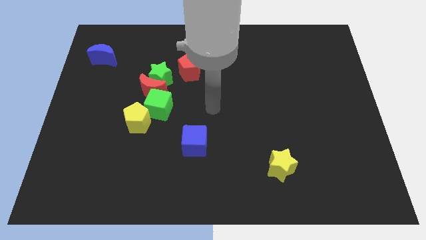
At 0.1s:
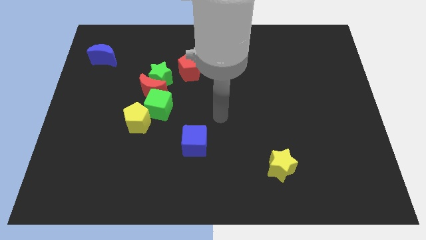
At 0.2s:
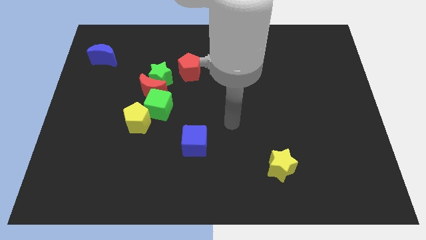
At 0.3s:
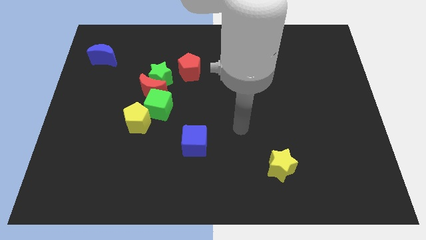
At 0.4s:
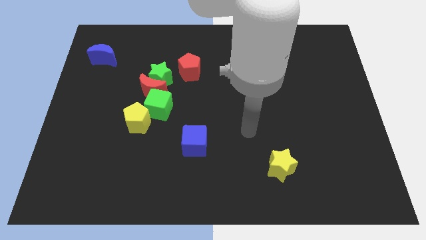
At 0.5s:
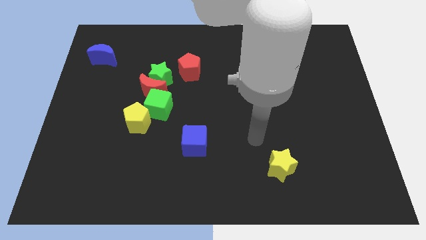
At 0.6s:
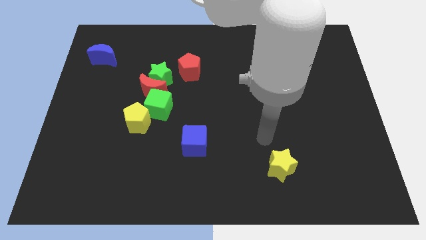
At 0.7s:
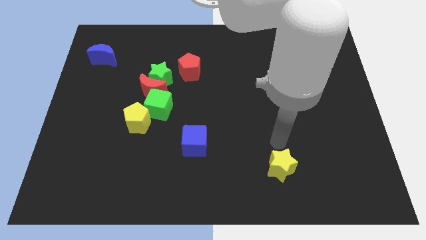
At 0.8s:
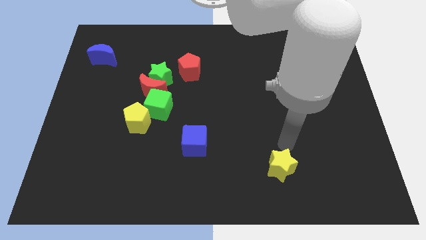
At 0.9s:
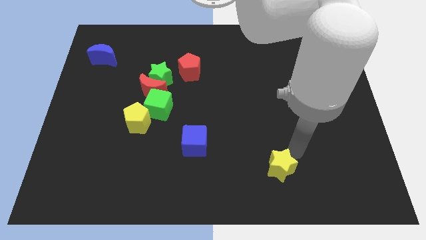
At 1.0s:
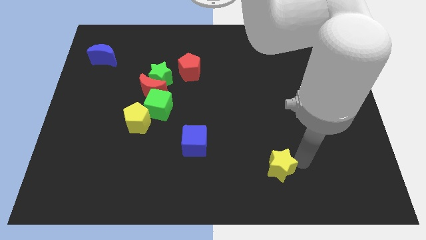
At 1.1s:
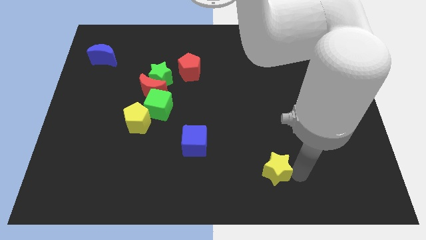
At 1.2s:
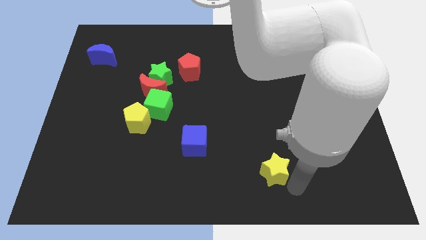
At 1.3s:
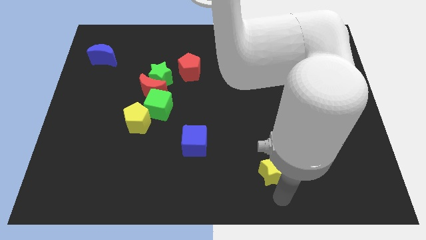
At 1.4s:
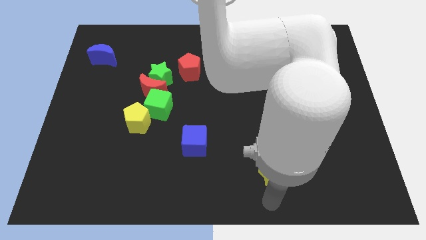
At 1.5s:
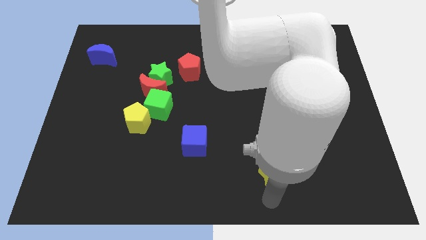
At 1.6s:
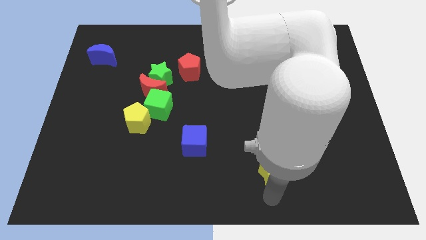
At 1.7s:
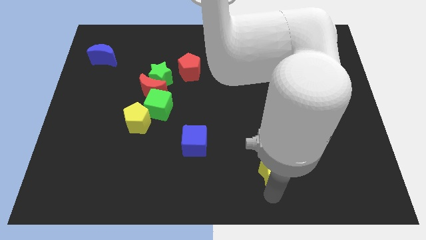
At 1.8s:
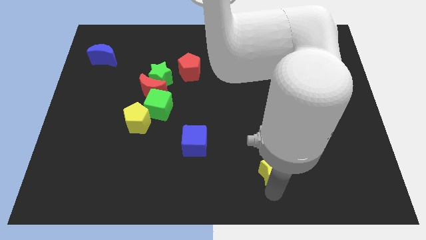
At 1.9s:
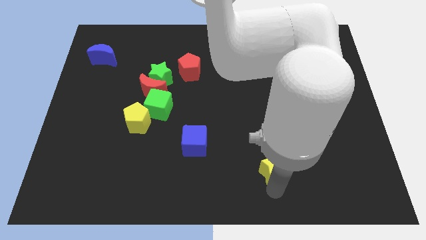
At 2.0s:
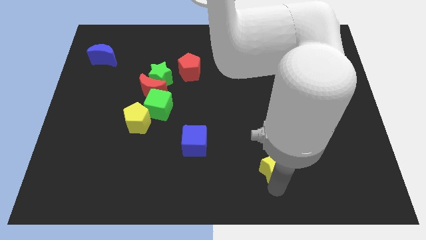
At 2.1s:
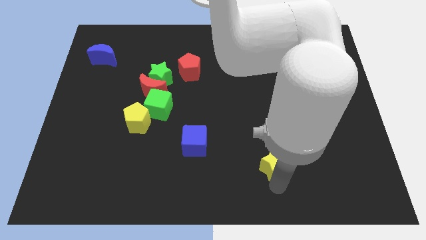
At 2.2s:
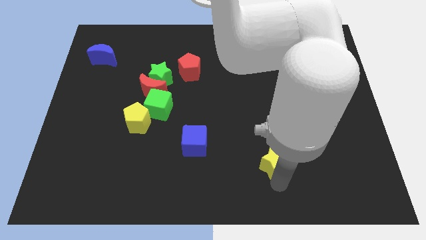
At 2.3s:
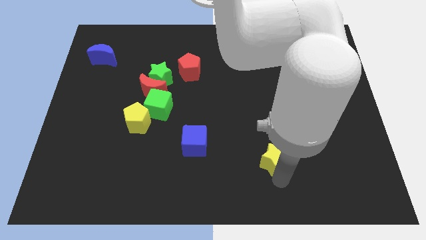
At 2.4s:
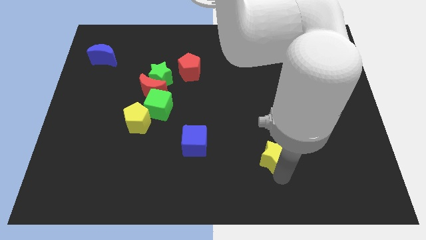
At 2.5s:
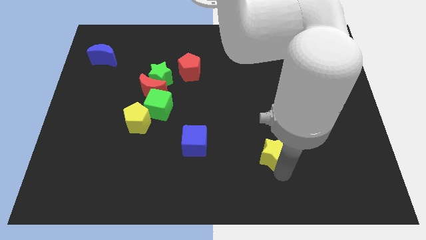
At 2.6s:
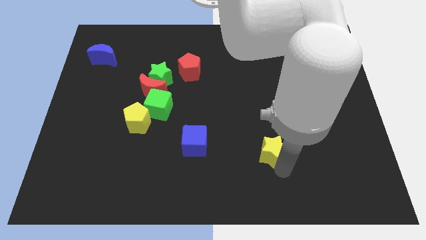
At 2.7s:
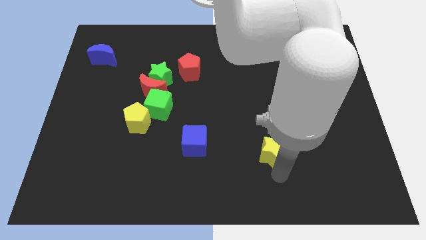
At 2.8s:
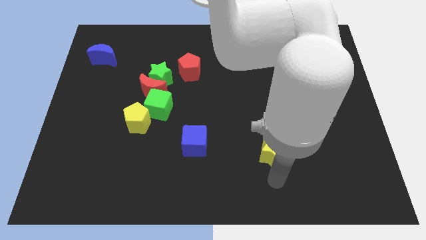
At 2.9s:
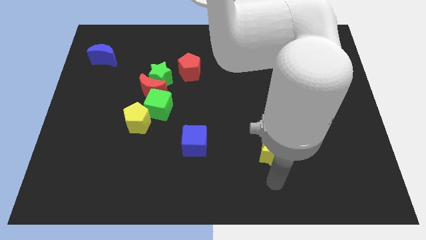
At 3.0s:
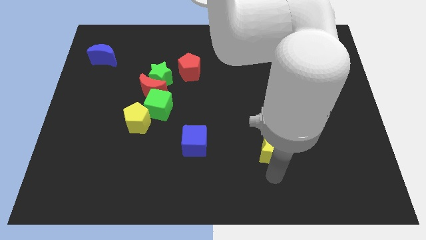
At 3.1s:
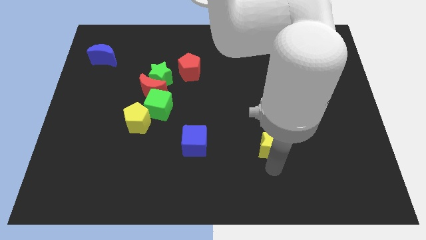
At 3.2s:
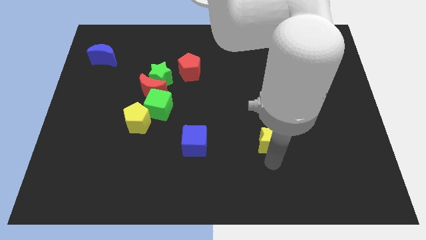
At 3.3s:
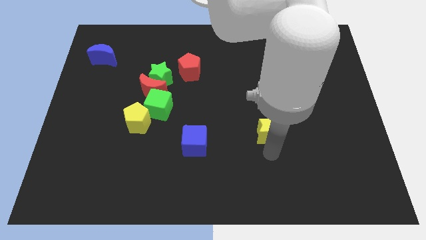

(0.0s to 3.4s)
slide the yellow star a little upwards

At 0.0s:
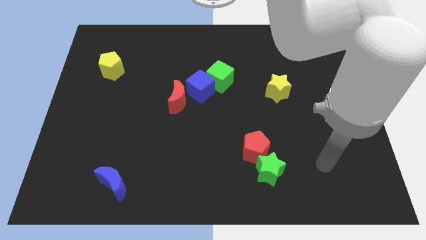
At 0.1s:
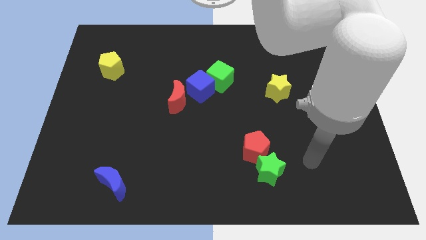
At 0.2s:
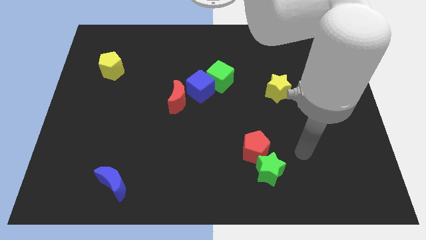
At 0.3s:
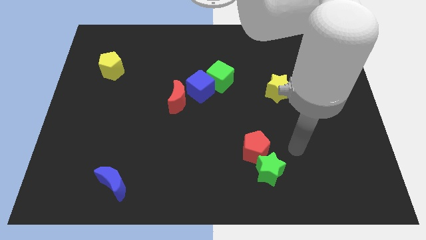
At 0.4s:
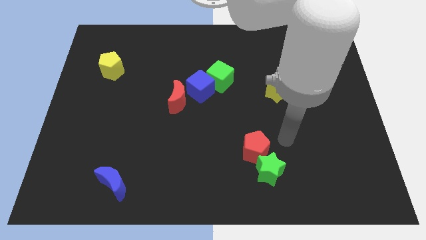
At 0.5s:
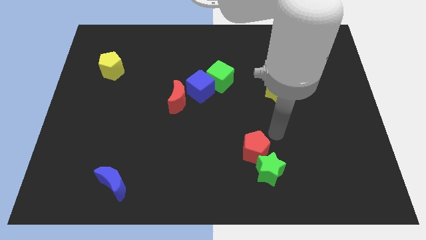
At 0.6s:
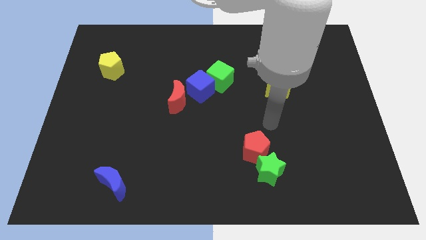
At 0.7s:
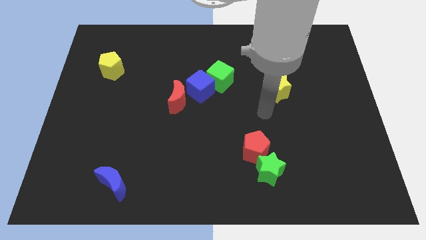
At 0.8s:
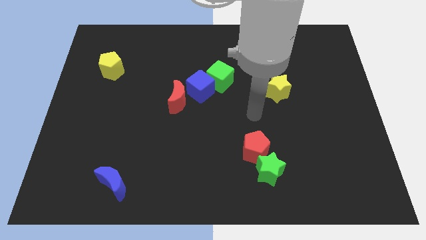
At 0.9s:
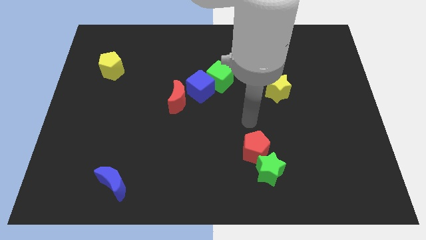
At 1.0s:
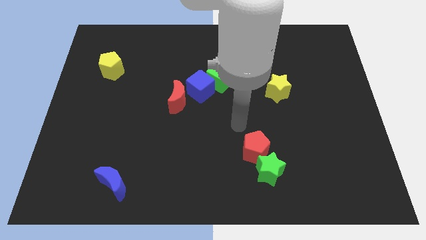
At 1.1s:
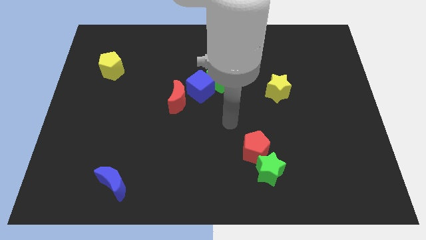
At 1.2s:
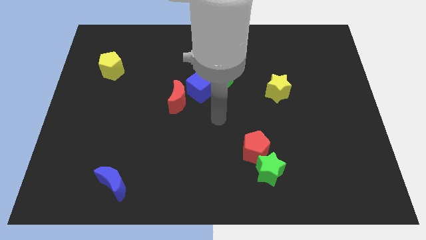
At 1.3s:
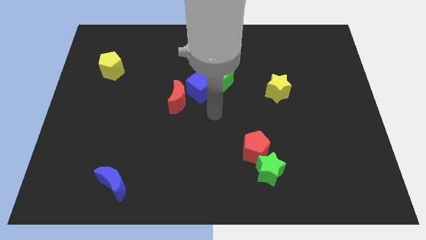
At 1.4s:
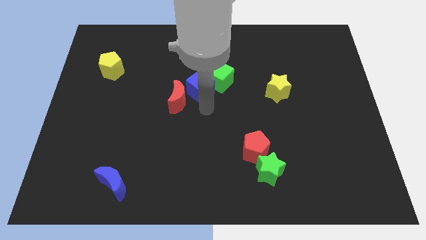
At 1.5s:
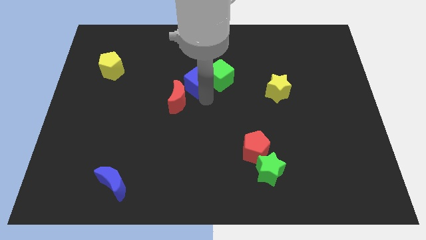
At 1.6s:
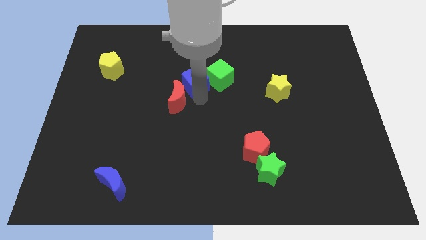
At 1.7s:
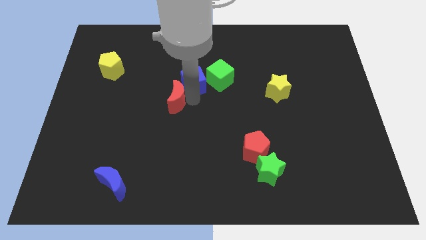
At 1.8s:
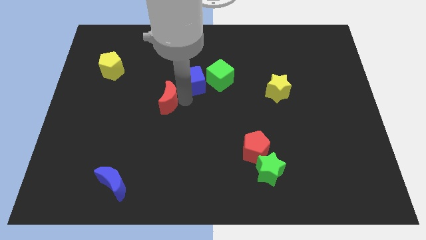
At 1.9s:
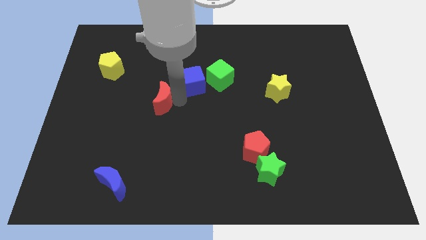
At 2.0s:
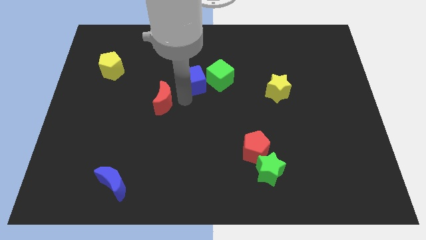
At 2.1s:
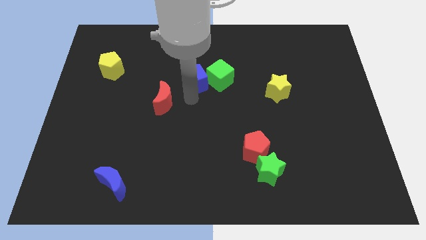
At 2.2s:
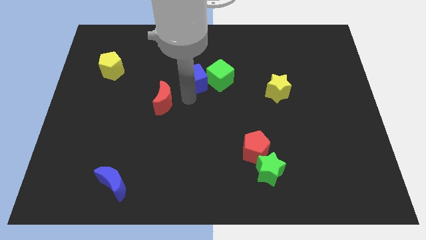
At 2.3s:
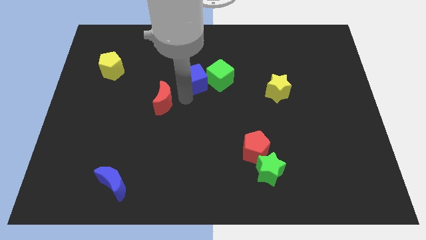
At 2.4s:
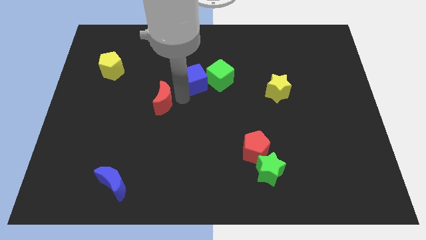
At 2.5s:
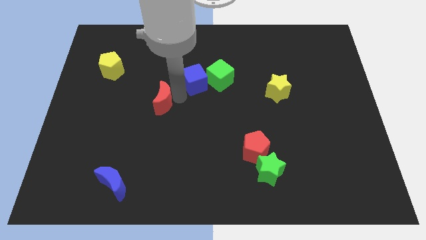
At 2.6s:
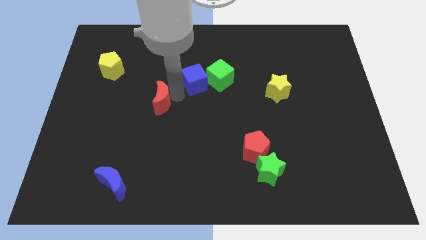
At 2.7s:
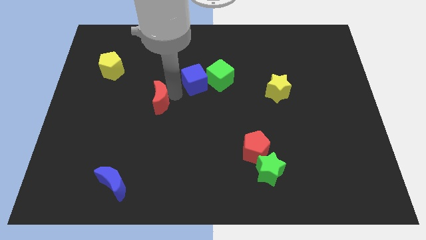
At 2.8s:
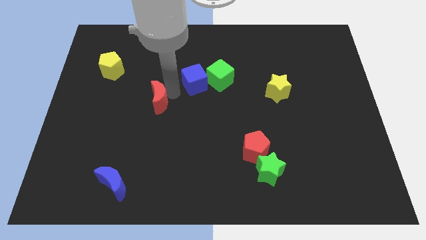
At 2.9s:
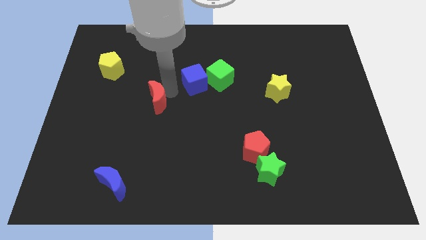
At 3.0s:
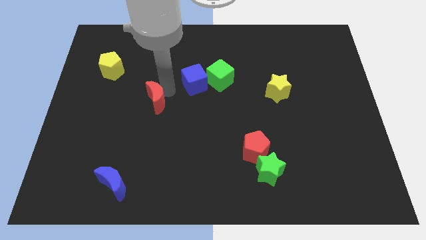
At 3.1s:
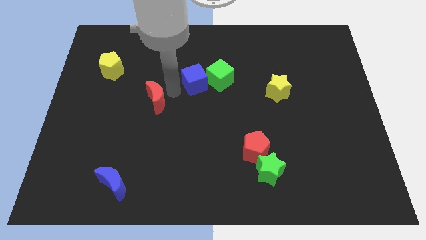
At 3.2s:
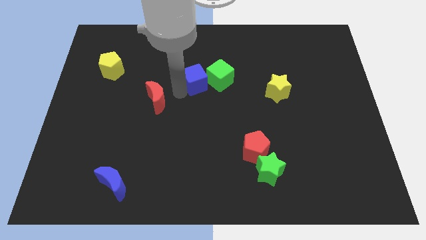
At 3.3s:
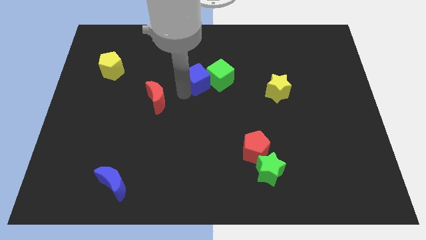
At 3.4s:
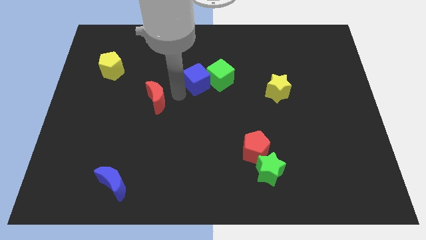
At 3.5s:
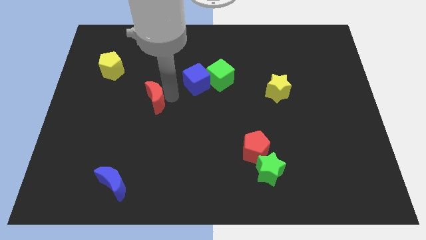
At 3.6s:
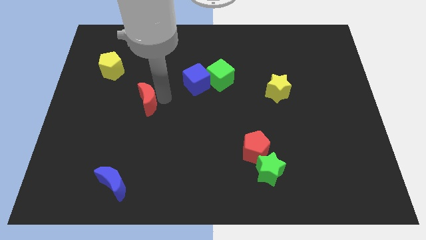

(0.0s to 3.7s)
slide the red moon a bit left

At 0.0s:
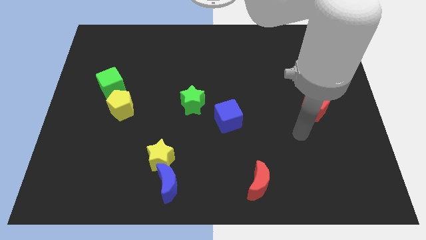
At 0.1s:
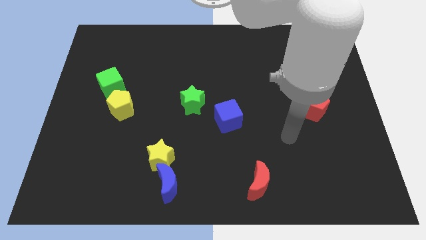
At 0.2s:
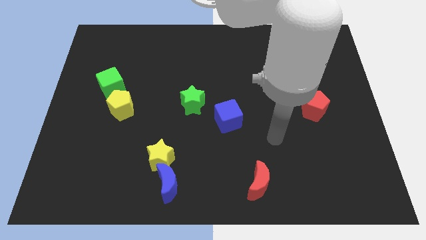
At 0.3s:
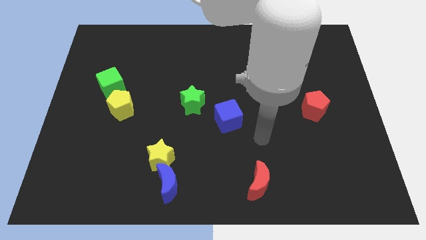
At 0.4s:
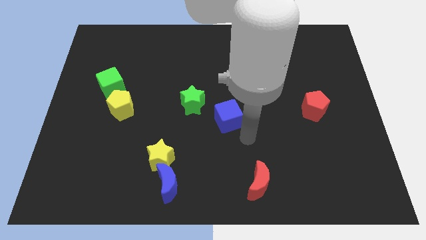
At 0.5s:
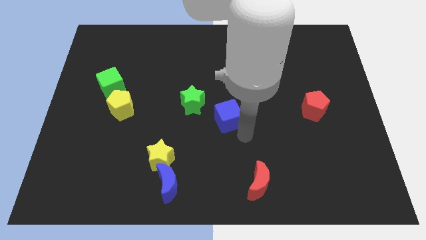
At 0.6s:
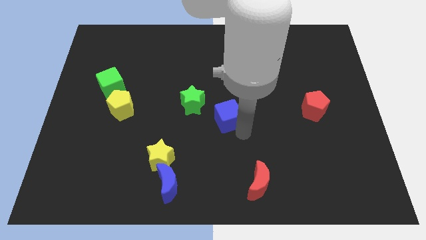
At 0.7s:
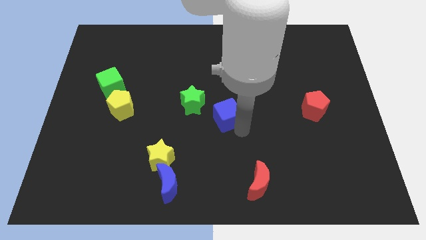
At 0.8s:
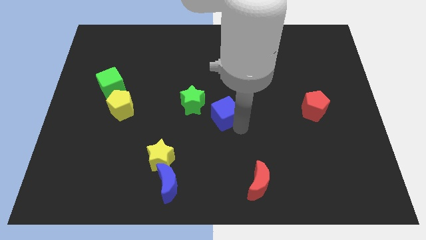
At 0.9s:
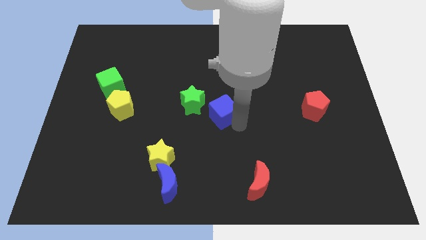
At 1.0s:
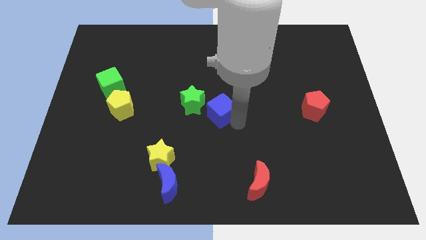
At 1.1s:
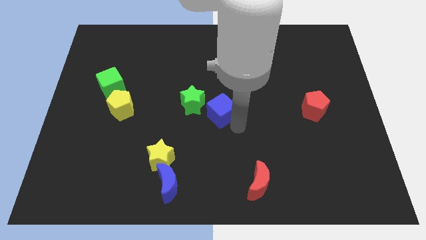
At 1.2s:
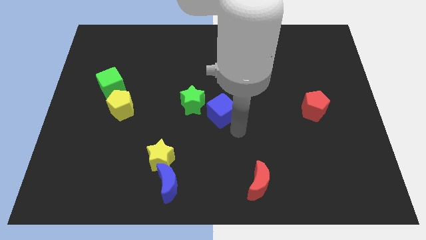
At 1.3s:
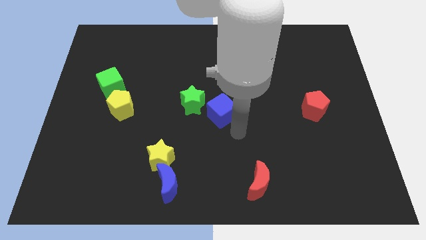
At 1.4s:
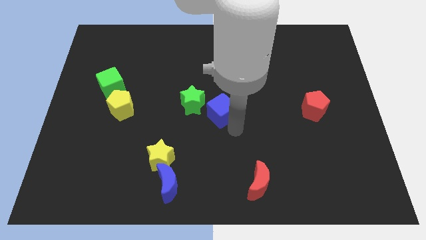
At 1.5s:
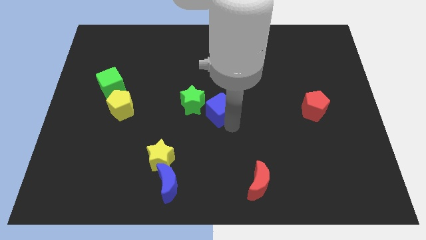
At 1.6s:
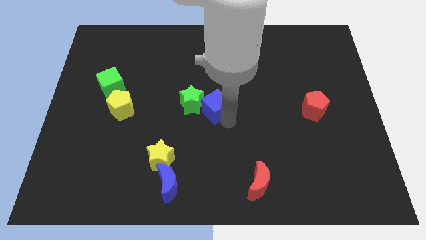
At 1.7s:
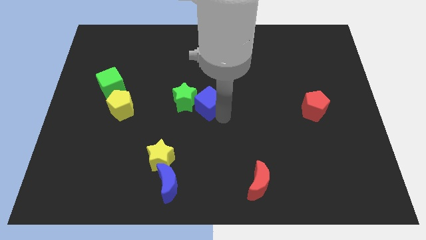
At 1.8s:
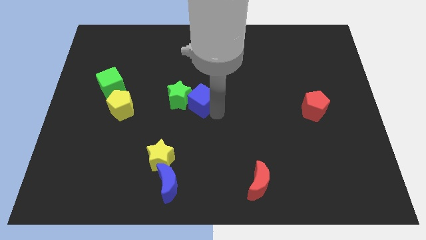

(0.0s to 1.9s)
push the blue cube diagonally upwards and to the left a little
